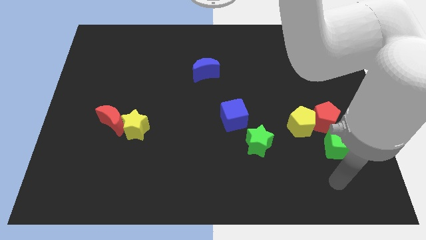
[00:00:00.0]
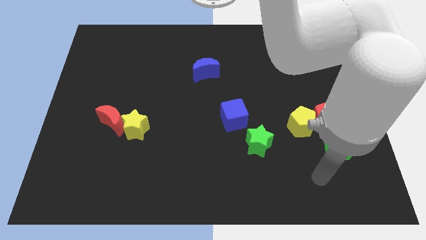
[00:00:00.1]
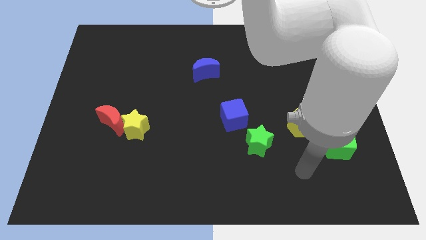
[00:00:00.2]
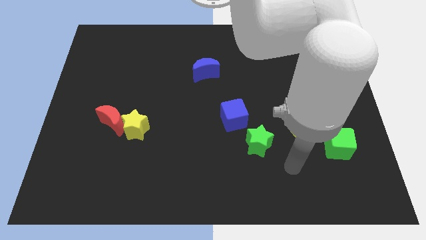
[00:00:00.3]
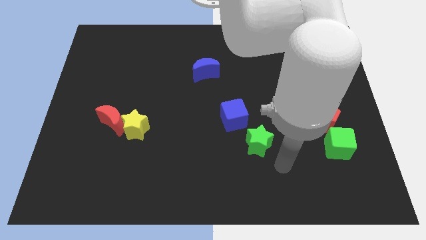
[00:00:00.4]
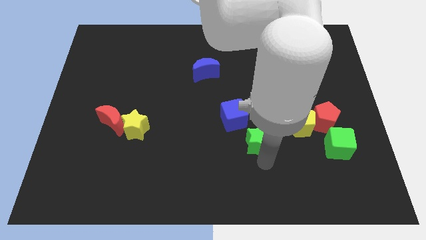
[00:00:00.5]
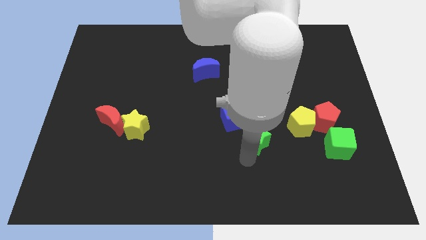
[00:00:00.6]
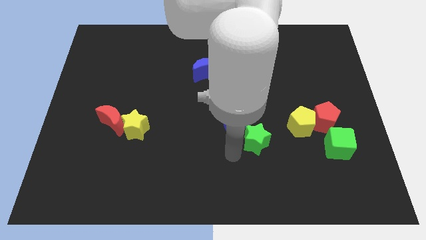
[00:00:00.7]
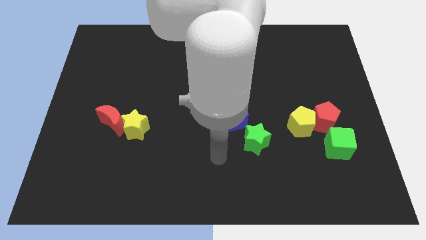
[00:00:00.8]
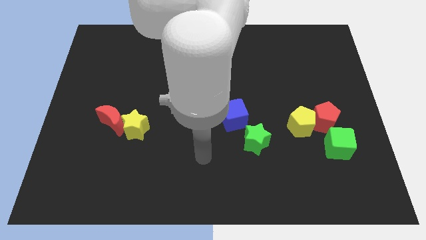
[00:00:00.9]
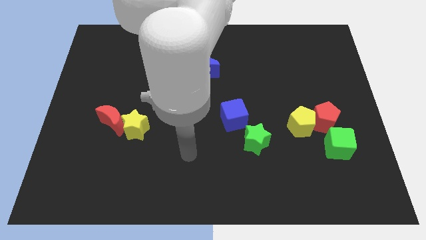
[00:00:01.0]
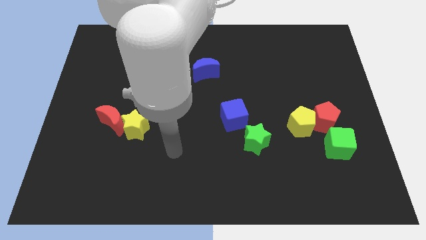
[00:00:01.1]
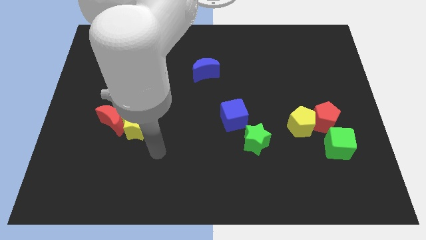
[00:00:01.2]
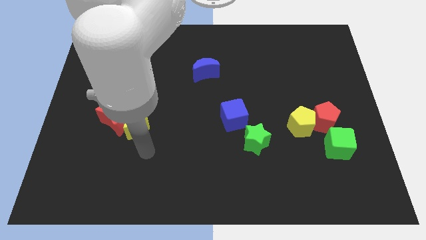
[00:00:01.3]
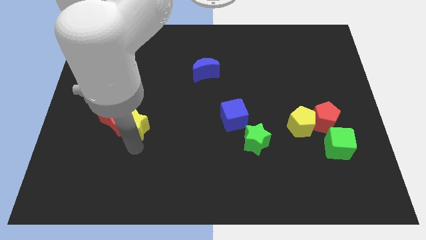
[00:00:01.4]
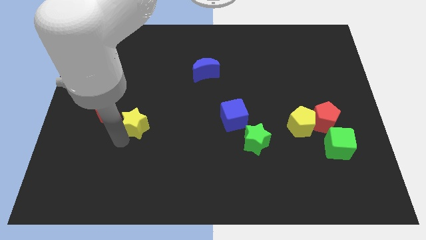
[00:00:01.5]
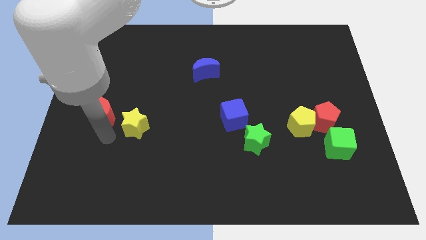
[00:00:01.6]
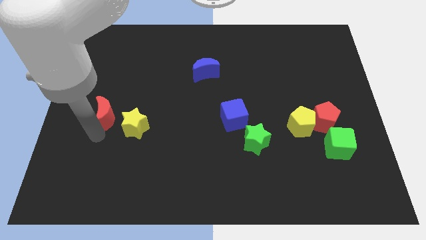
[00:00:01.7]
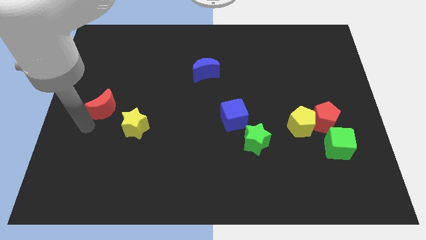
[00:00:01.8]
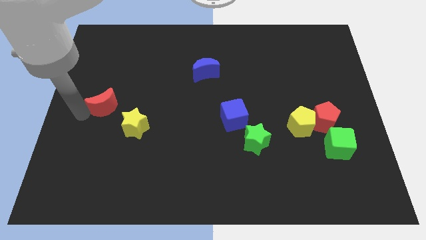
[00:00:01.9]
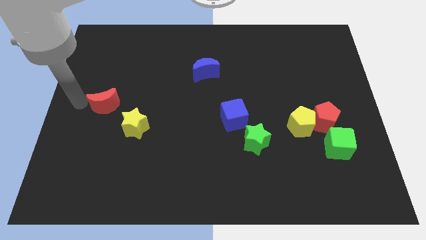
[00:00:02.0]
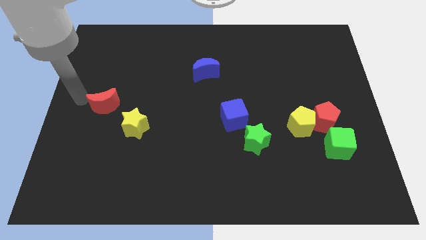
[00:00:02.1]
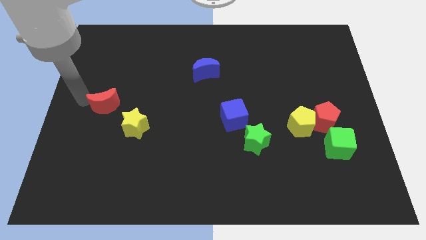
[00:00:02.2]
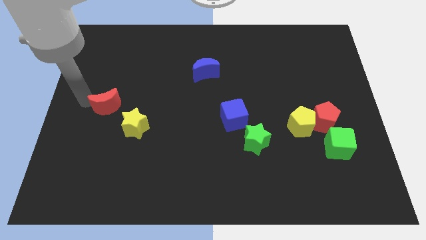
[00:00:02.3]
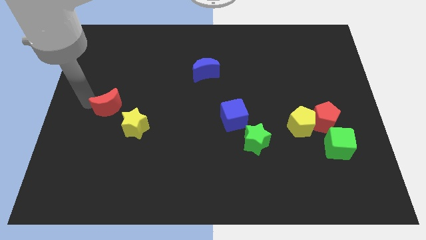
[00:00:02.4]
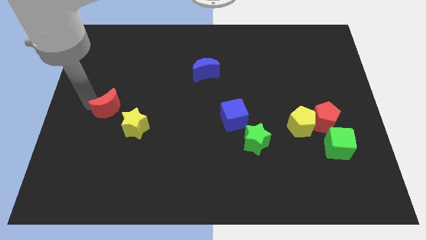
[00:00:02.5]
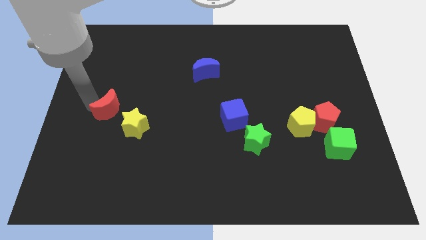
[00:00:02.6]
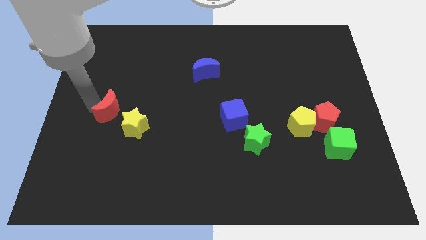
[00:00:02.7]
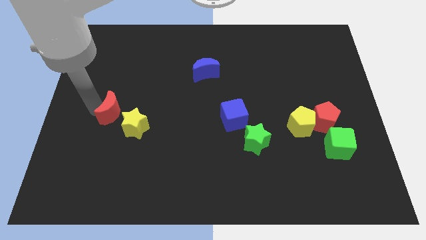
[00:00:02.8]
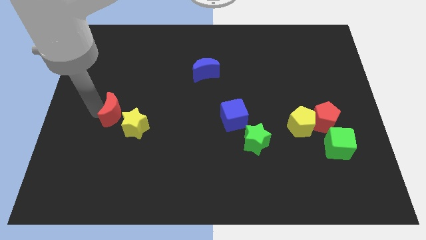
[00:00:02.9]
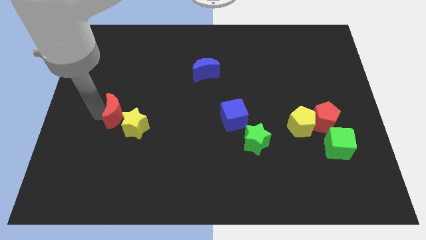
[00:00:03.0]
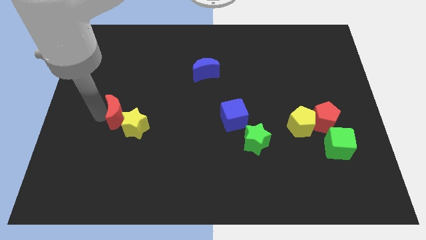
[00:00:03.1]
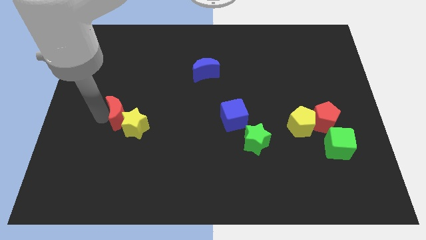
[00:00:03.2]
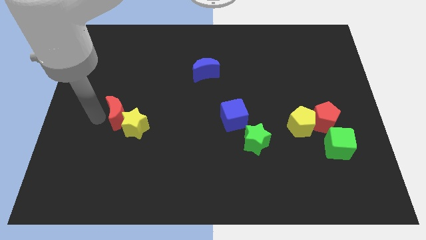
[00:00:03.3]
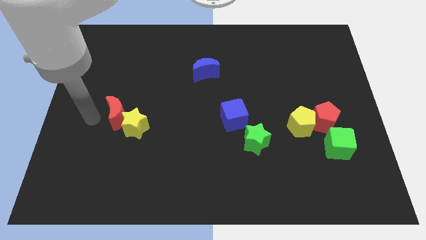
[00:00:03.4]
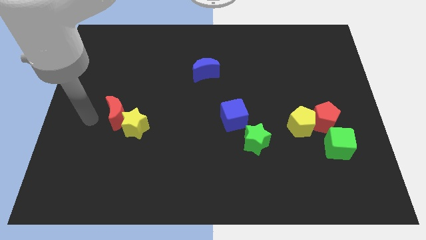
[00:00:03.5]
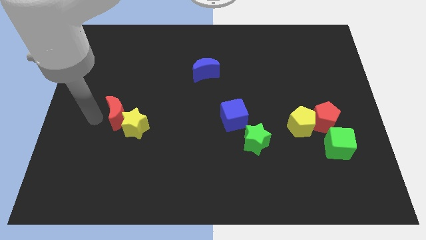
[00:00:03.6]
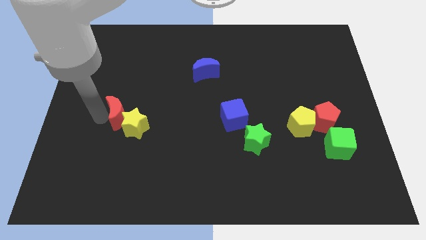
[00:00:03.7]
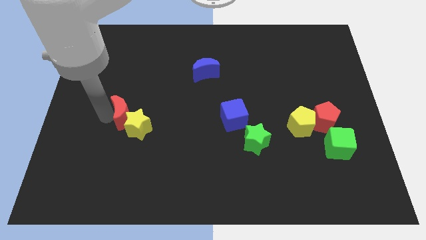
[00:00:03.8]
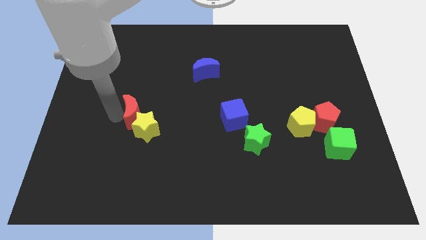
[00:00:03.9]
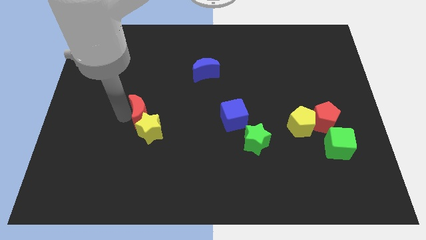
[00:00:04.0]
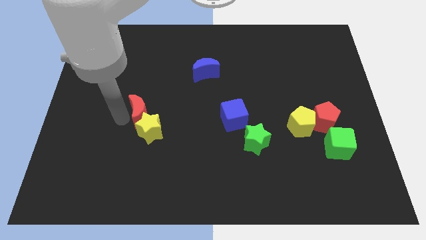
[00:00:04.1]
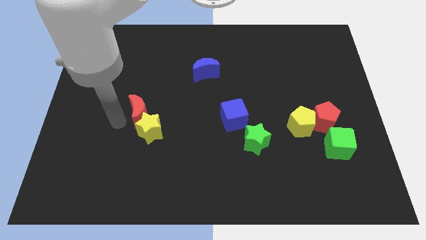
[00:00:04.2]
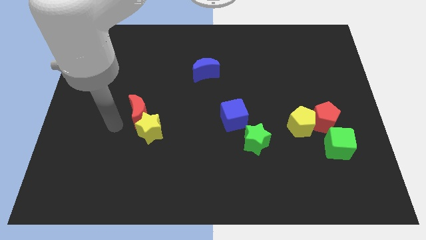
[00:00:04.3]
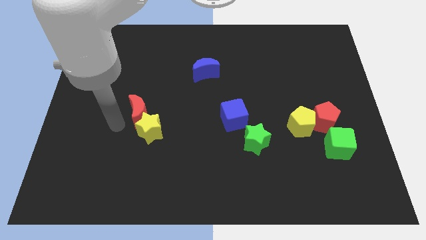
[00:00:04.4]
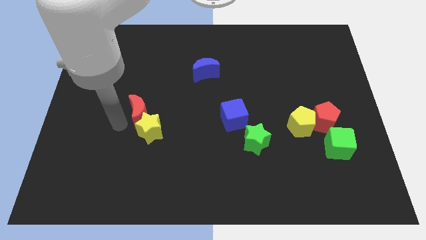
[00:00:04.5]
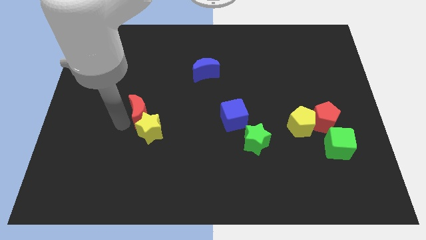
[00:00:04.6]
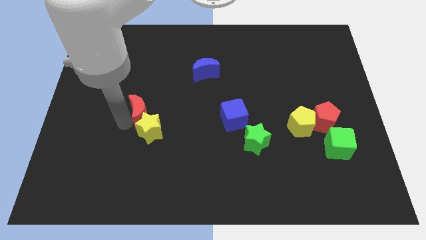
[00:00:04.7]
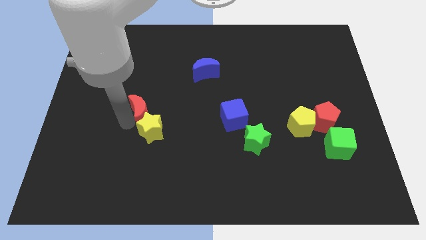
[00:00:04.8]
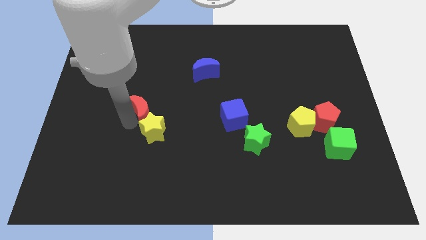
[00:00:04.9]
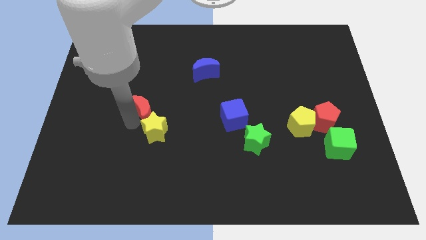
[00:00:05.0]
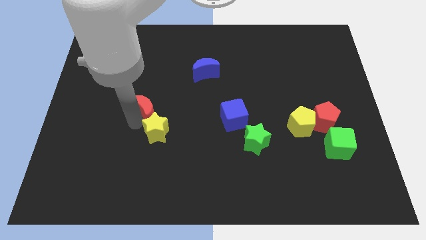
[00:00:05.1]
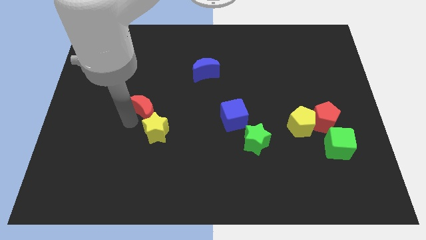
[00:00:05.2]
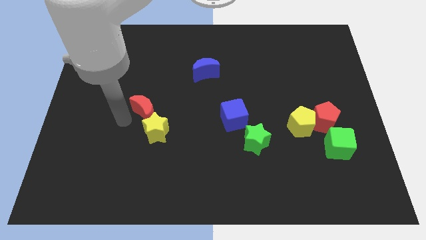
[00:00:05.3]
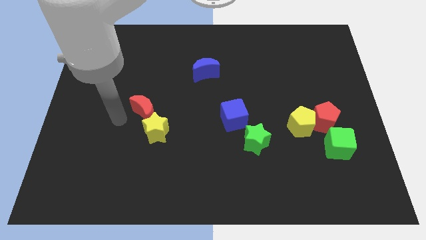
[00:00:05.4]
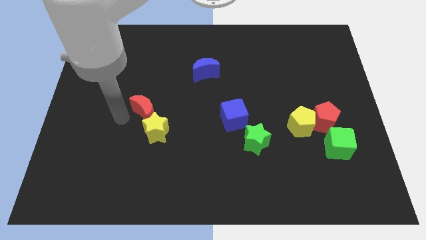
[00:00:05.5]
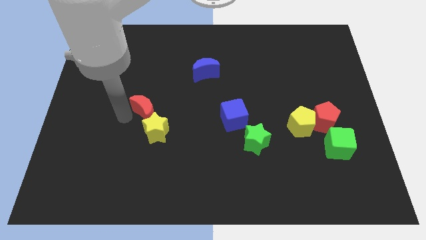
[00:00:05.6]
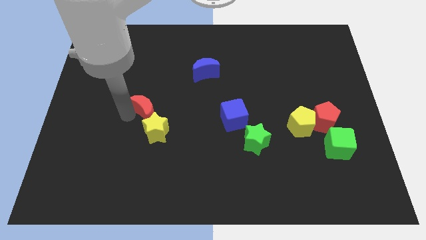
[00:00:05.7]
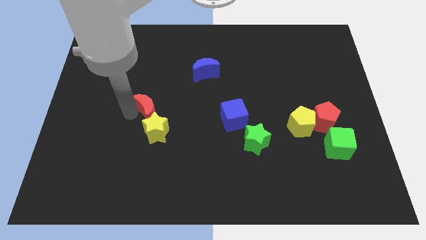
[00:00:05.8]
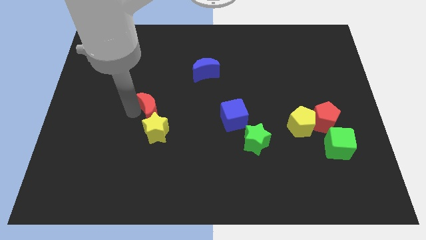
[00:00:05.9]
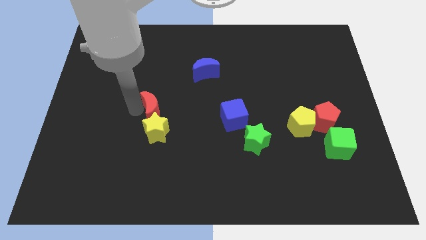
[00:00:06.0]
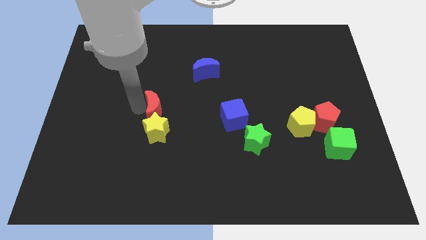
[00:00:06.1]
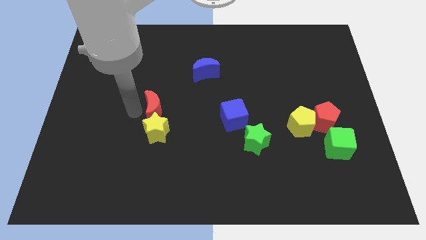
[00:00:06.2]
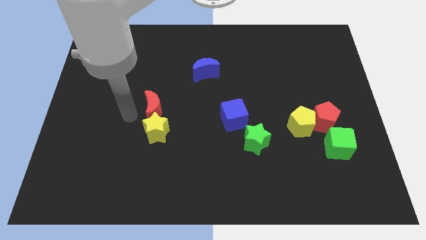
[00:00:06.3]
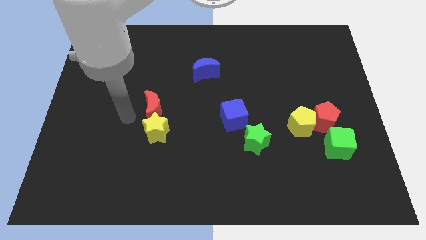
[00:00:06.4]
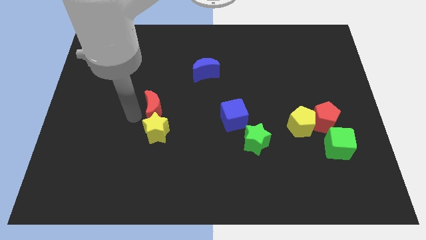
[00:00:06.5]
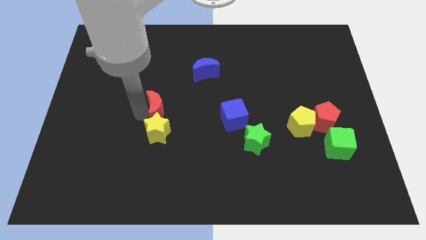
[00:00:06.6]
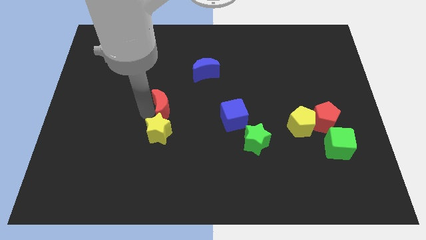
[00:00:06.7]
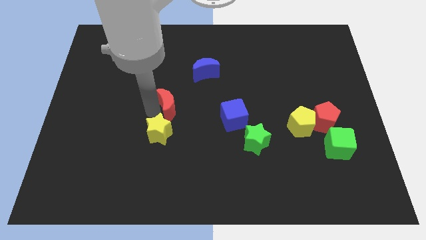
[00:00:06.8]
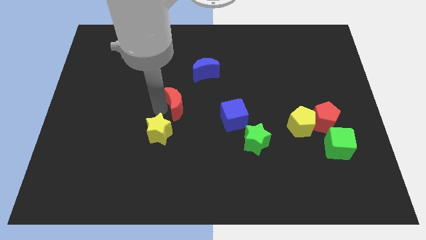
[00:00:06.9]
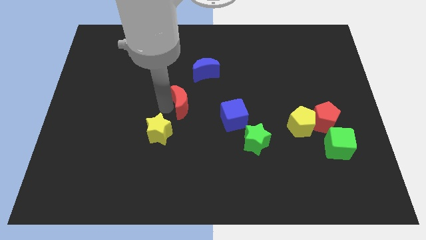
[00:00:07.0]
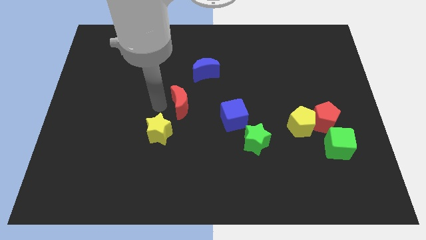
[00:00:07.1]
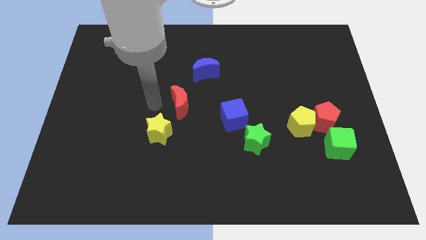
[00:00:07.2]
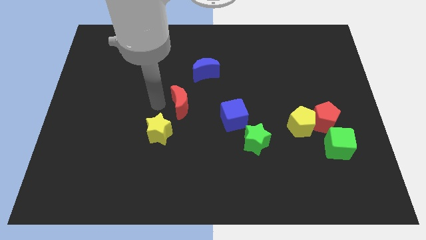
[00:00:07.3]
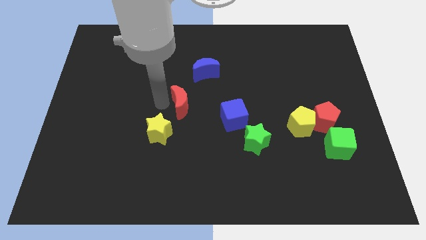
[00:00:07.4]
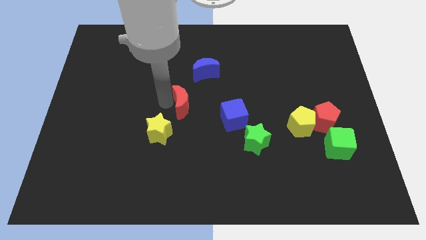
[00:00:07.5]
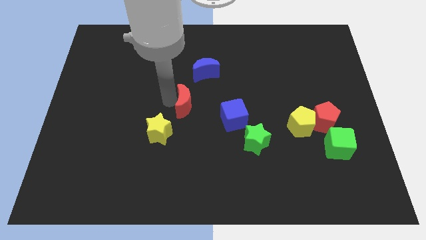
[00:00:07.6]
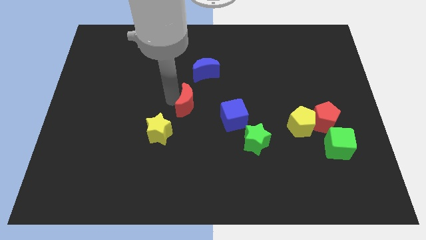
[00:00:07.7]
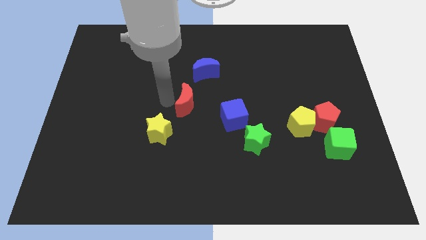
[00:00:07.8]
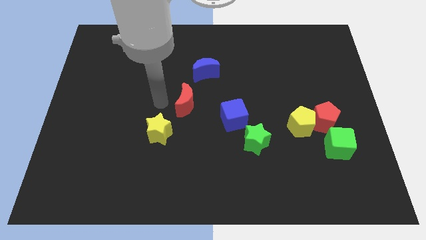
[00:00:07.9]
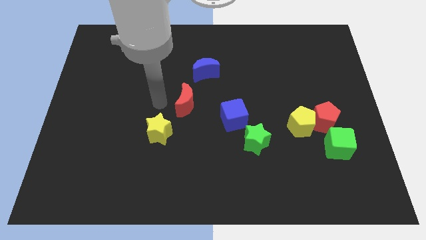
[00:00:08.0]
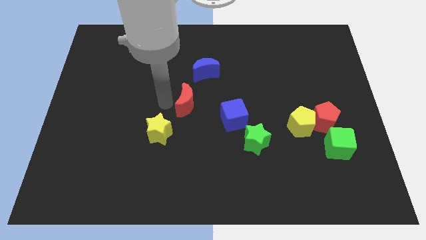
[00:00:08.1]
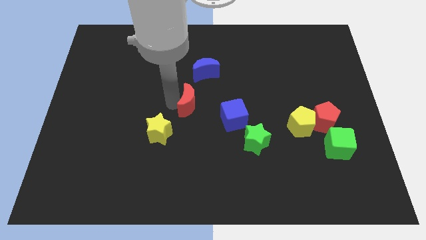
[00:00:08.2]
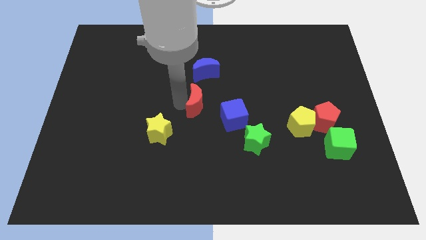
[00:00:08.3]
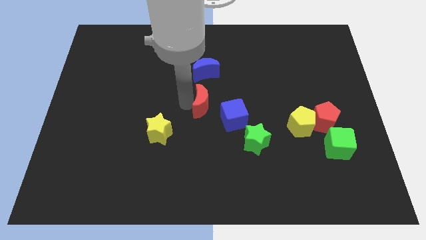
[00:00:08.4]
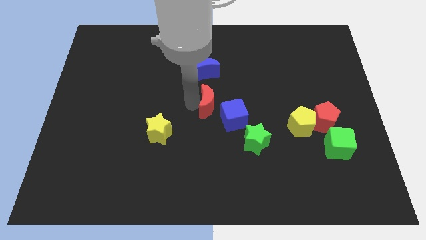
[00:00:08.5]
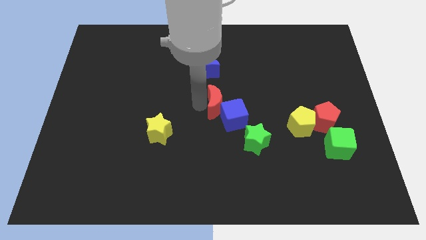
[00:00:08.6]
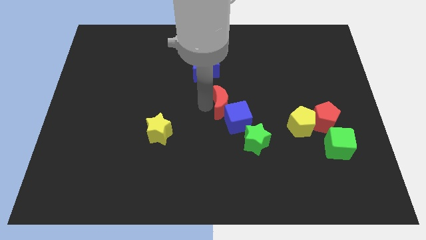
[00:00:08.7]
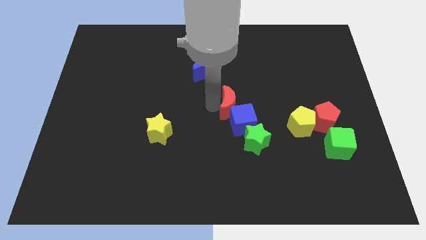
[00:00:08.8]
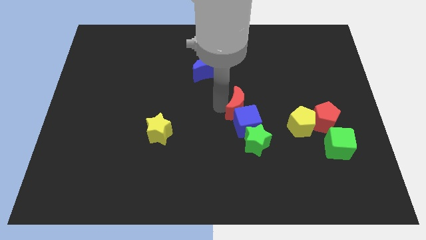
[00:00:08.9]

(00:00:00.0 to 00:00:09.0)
slide the red moon above the green star
